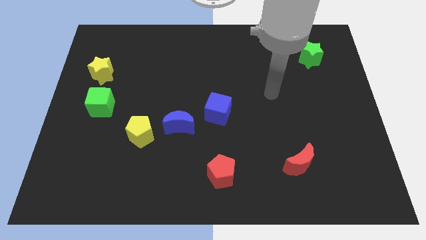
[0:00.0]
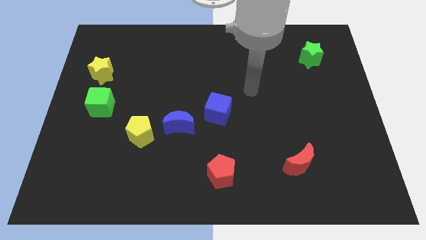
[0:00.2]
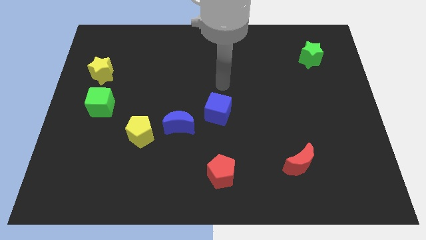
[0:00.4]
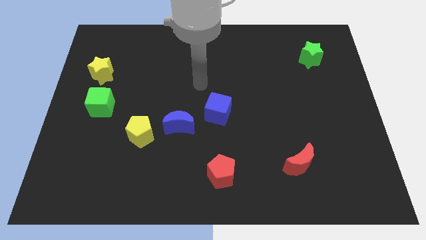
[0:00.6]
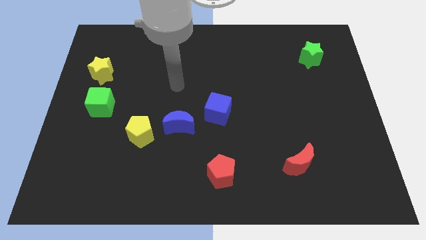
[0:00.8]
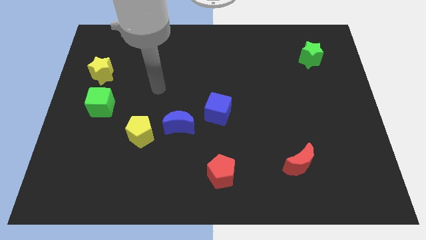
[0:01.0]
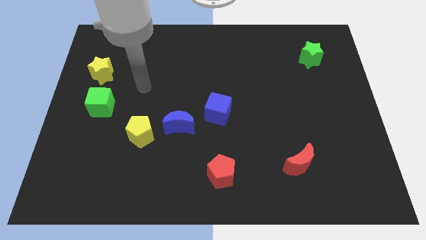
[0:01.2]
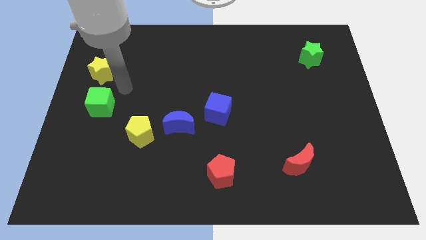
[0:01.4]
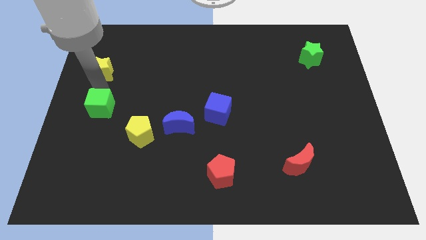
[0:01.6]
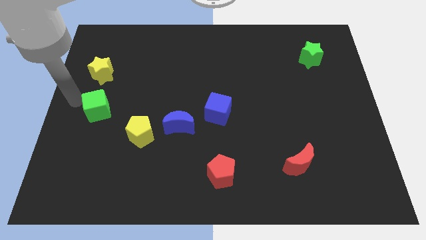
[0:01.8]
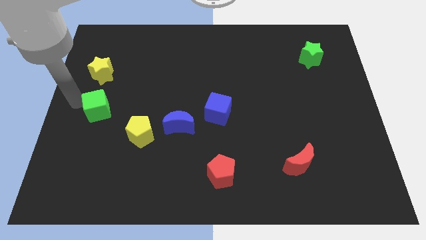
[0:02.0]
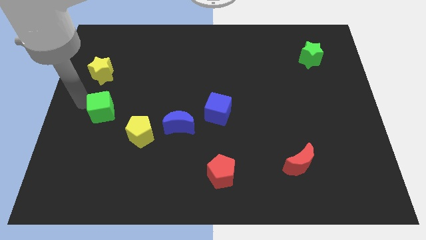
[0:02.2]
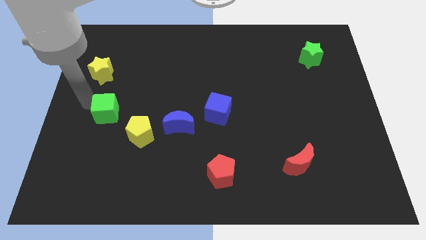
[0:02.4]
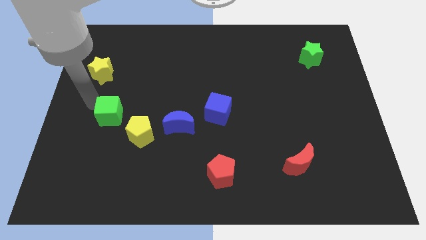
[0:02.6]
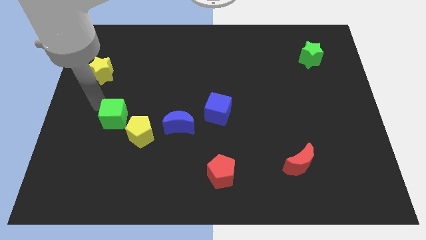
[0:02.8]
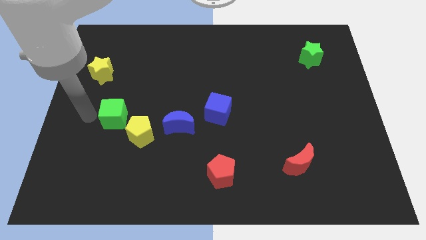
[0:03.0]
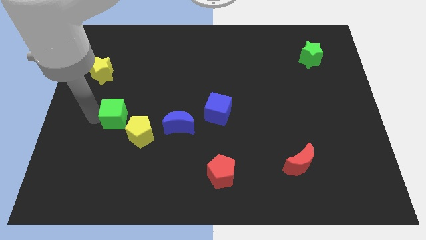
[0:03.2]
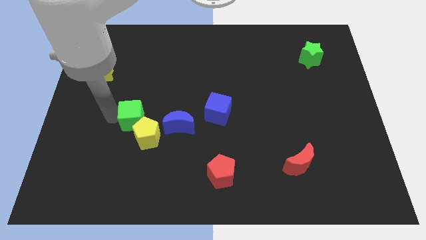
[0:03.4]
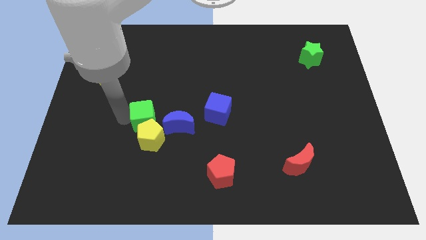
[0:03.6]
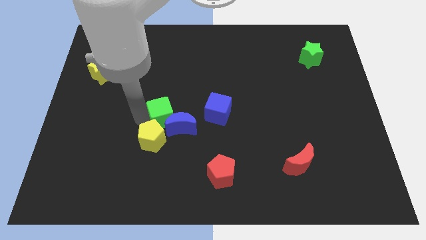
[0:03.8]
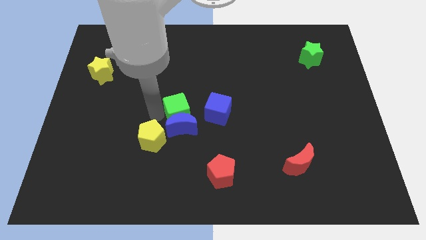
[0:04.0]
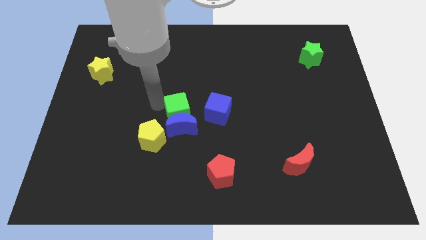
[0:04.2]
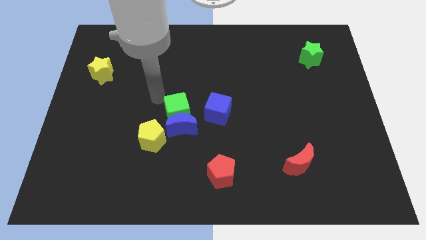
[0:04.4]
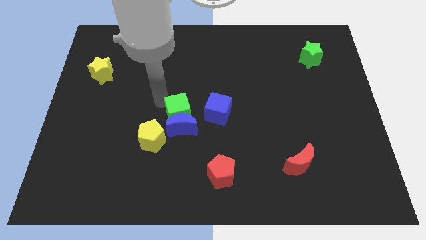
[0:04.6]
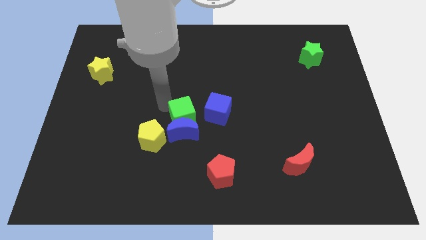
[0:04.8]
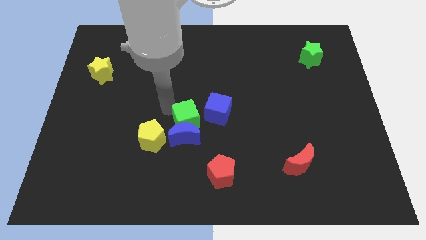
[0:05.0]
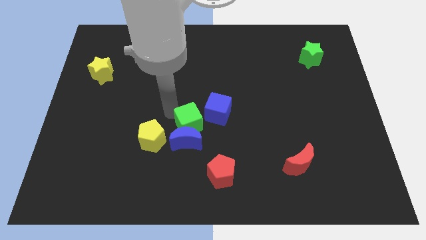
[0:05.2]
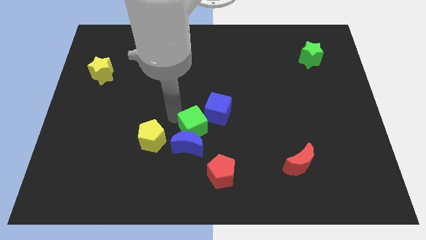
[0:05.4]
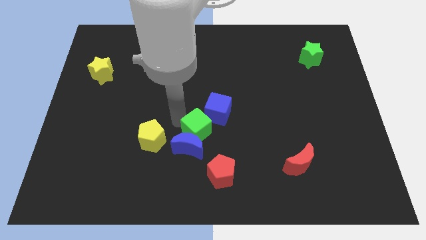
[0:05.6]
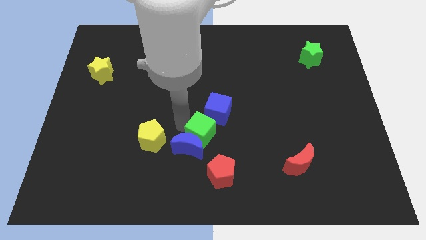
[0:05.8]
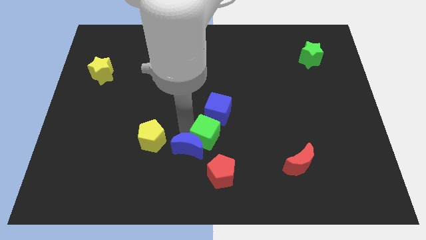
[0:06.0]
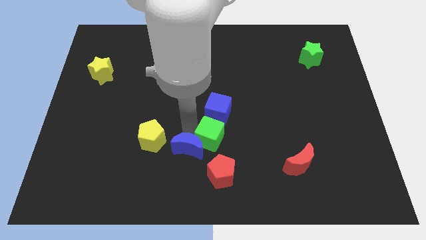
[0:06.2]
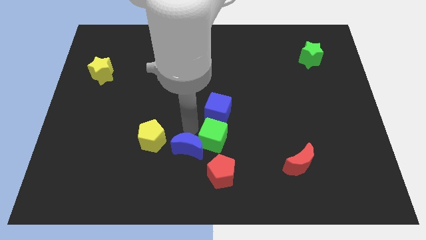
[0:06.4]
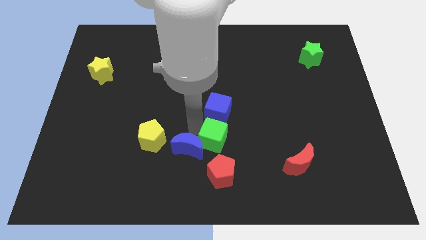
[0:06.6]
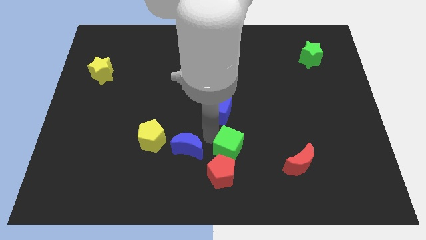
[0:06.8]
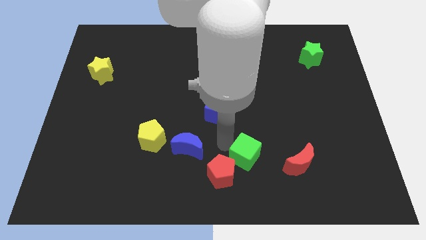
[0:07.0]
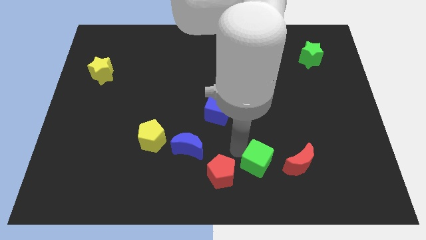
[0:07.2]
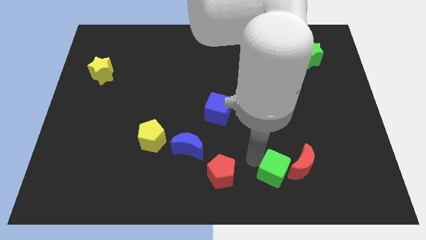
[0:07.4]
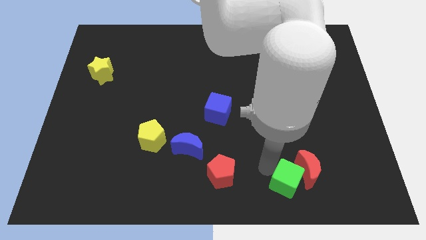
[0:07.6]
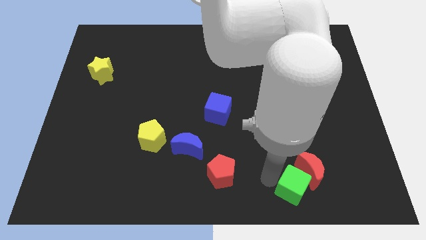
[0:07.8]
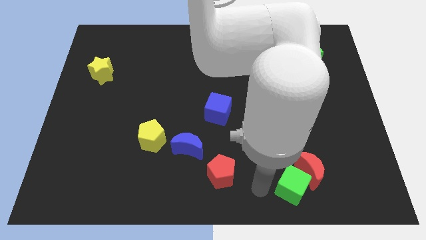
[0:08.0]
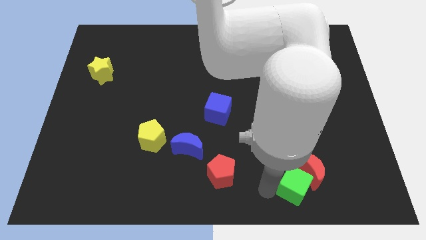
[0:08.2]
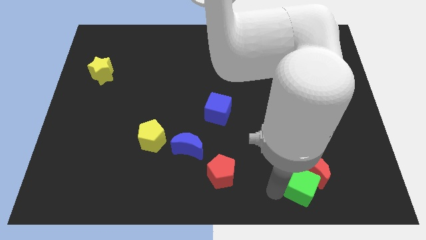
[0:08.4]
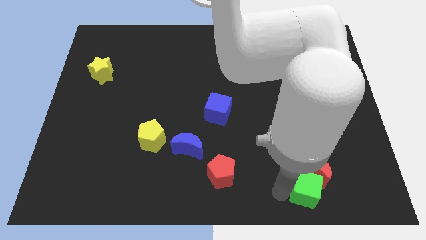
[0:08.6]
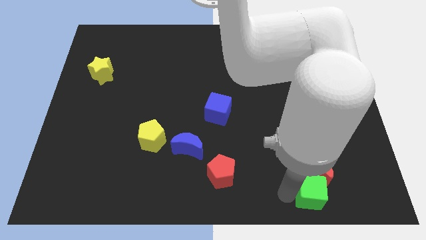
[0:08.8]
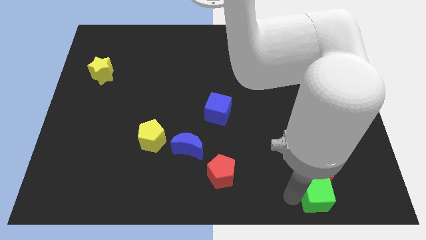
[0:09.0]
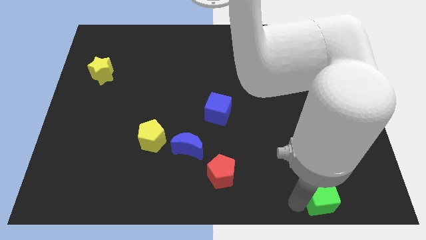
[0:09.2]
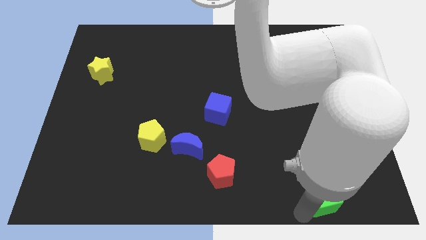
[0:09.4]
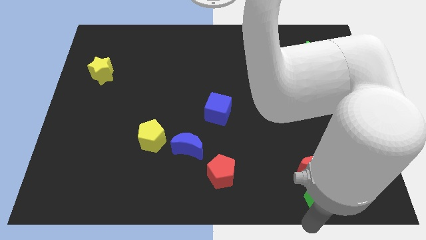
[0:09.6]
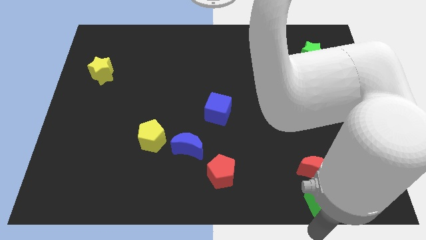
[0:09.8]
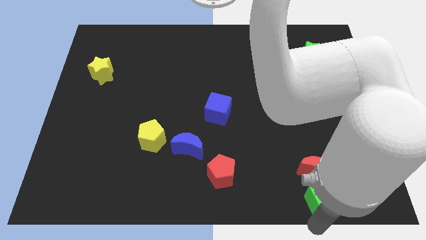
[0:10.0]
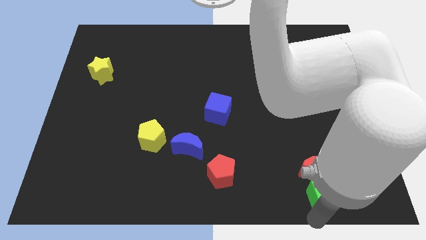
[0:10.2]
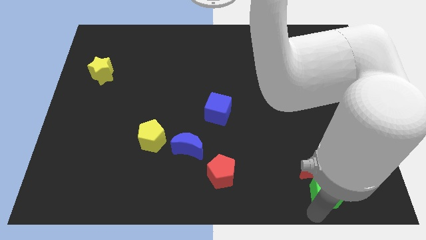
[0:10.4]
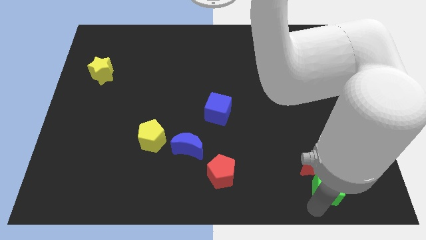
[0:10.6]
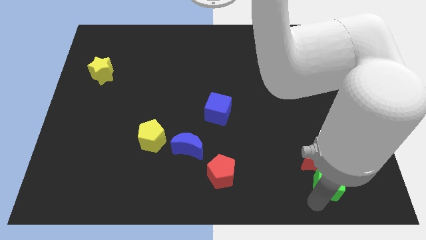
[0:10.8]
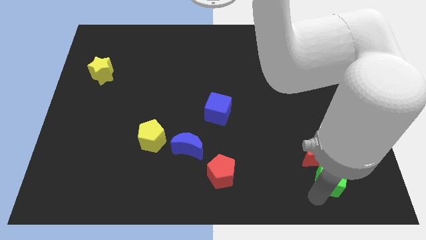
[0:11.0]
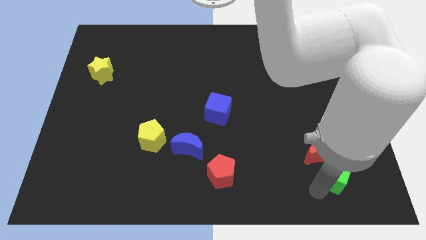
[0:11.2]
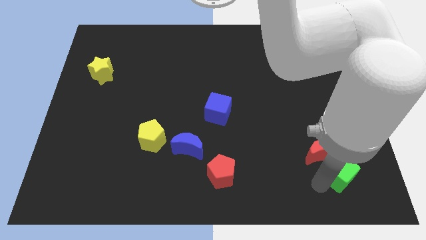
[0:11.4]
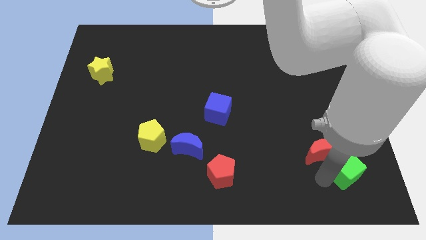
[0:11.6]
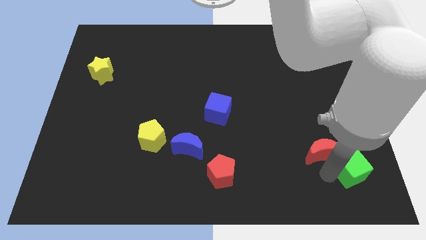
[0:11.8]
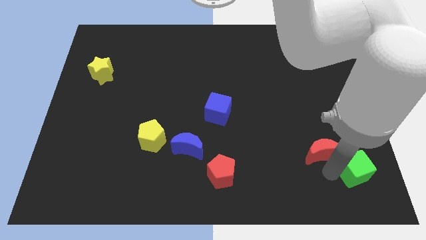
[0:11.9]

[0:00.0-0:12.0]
put the green cube to the bottom right of the board

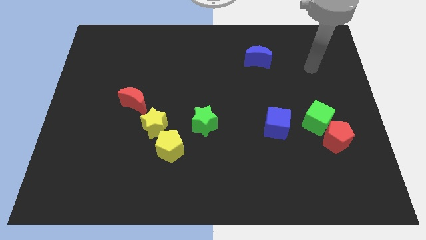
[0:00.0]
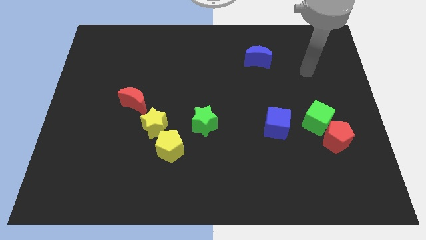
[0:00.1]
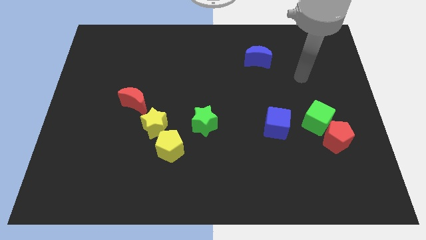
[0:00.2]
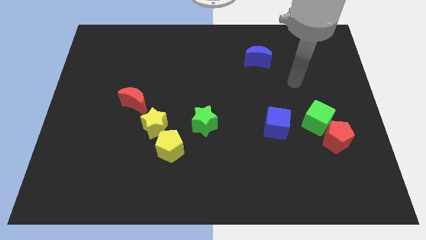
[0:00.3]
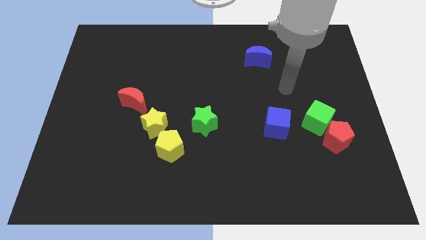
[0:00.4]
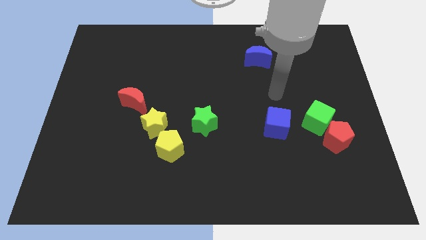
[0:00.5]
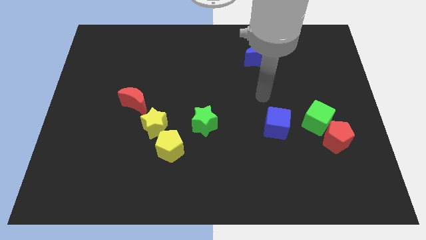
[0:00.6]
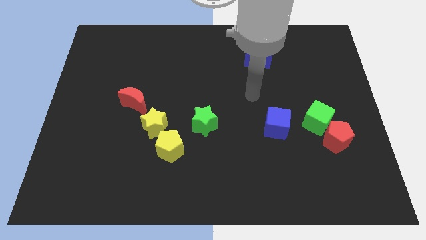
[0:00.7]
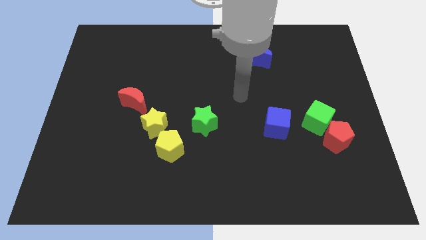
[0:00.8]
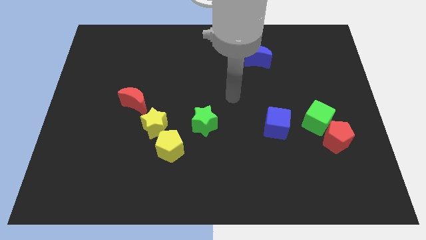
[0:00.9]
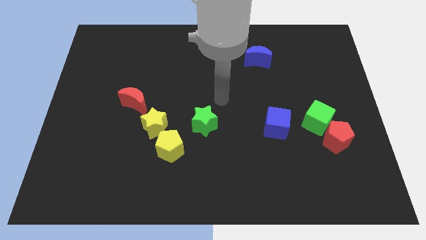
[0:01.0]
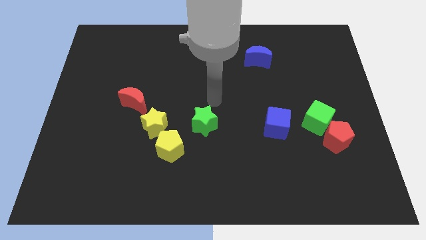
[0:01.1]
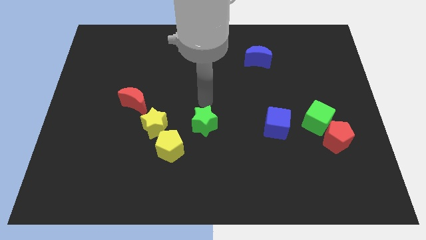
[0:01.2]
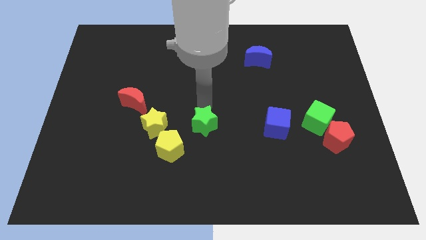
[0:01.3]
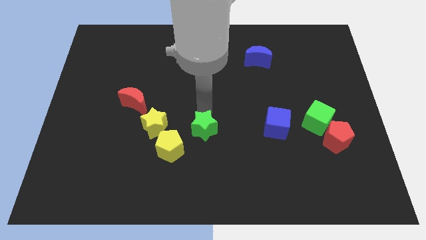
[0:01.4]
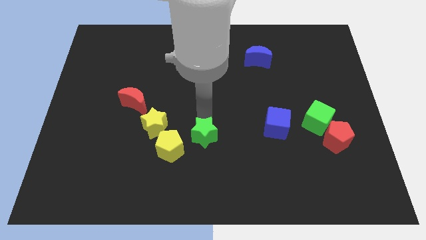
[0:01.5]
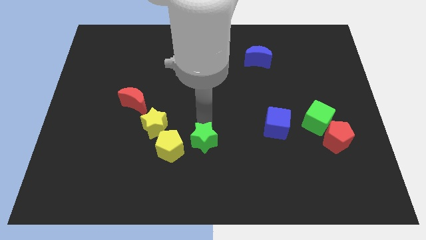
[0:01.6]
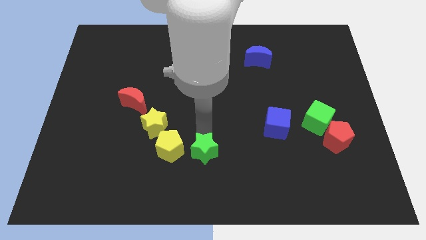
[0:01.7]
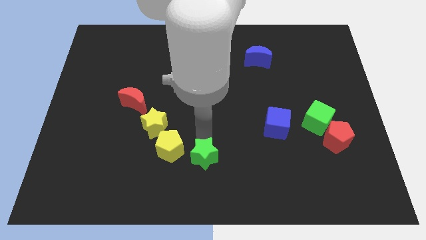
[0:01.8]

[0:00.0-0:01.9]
put the green star to the bottom

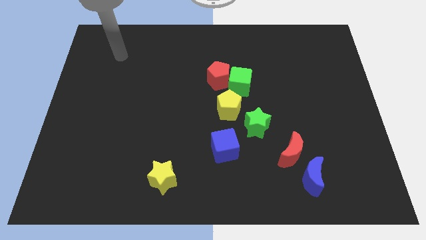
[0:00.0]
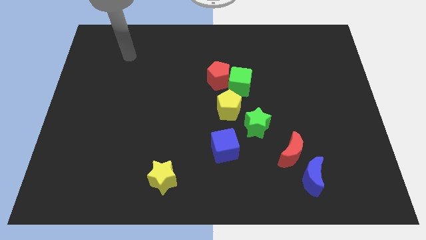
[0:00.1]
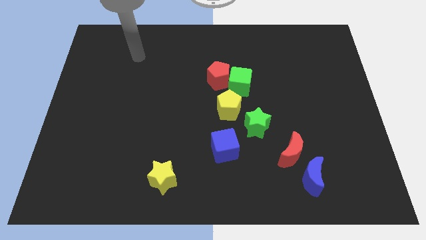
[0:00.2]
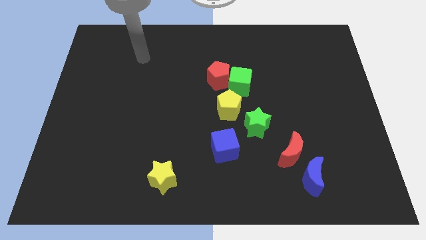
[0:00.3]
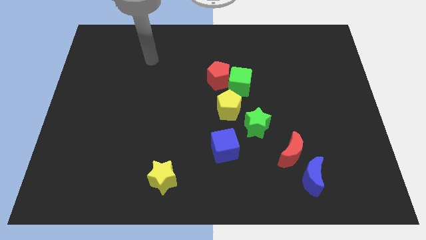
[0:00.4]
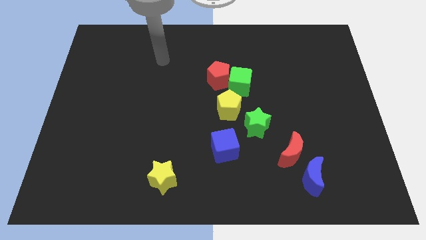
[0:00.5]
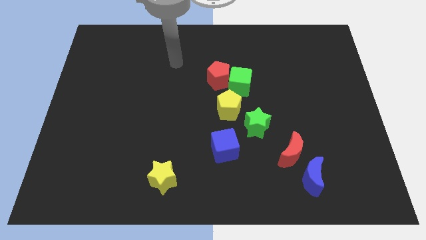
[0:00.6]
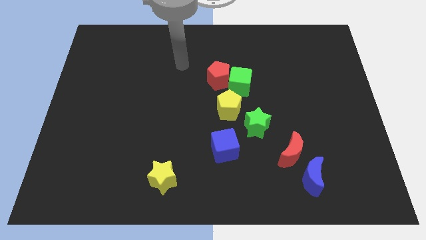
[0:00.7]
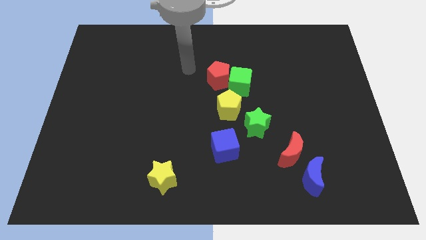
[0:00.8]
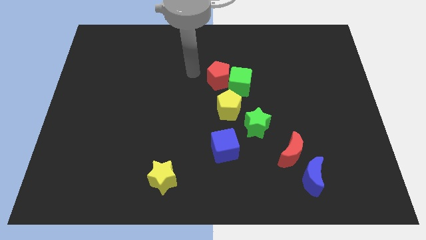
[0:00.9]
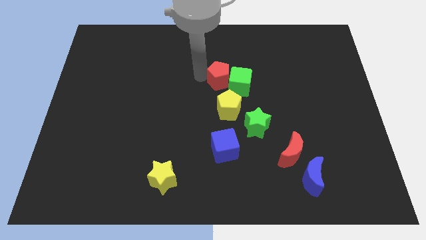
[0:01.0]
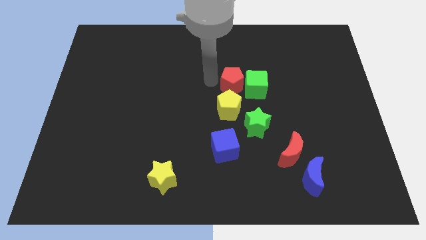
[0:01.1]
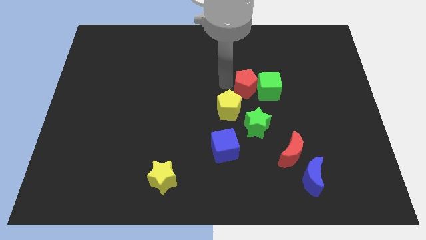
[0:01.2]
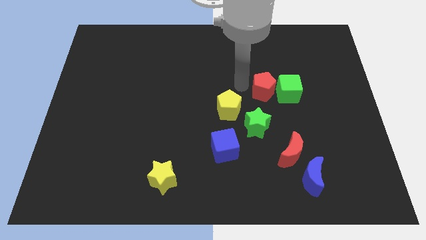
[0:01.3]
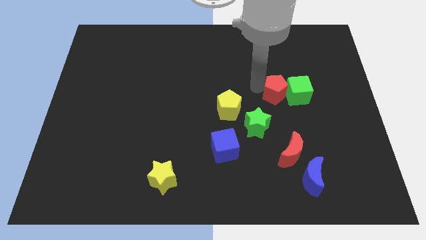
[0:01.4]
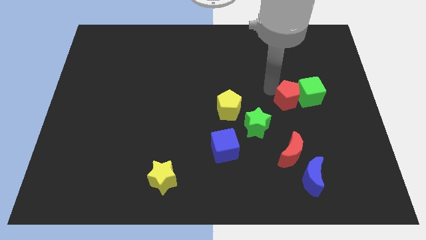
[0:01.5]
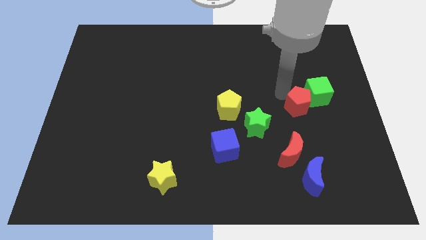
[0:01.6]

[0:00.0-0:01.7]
move the green cube to the right side
